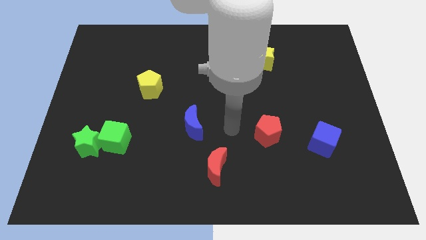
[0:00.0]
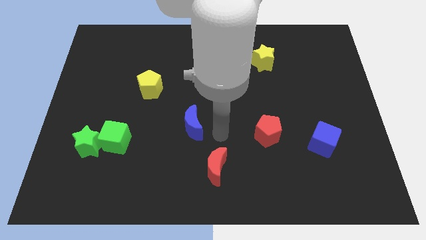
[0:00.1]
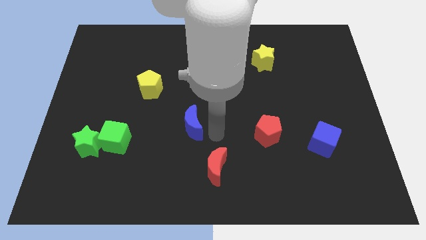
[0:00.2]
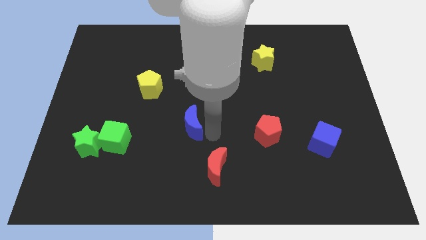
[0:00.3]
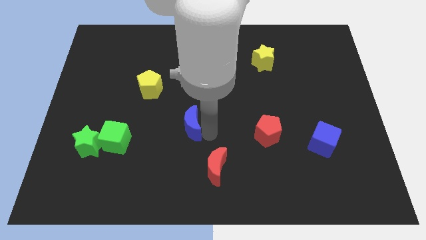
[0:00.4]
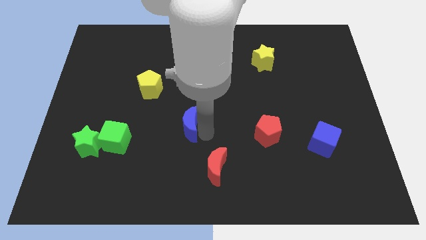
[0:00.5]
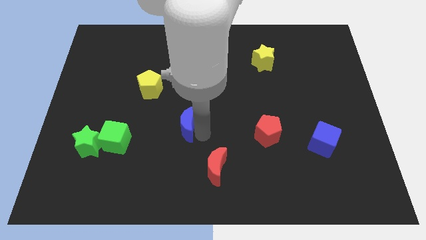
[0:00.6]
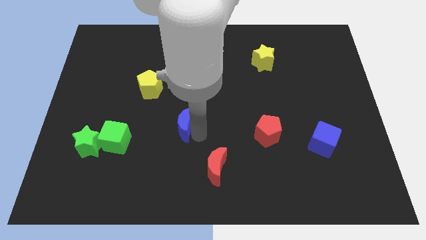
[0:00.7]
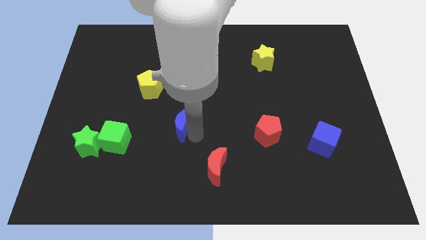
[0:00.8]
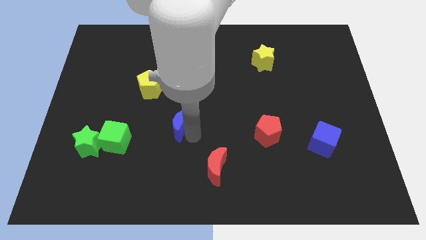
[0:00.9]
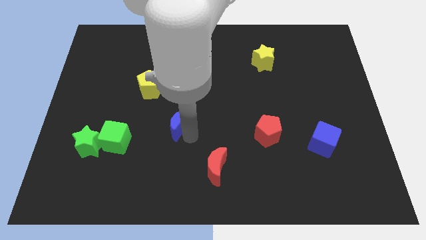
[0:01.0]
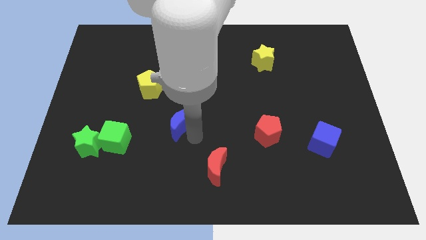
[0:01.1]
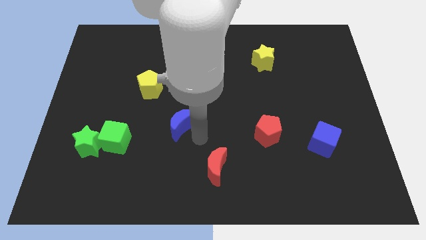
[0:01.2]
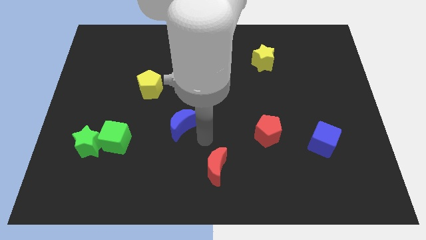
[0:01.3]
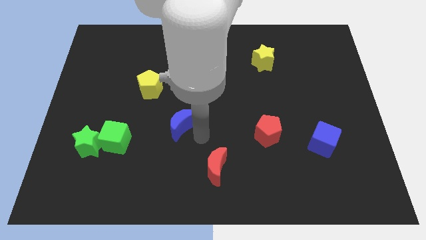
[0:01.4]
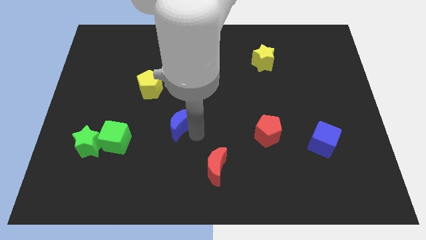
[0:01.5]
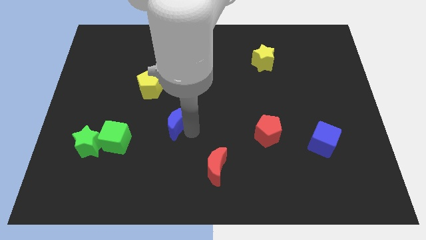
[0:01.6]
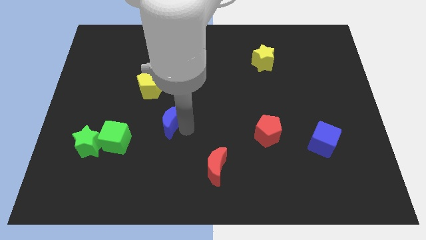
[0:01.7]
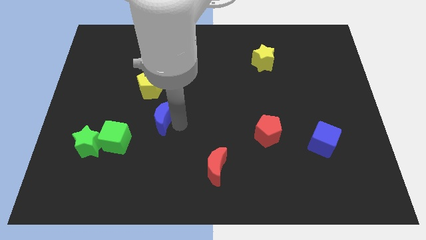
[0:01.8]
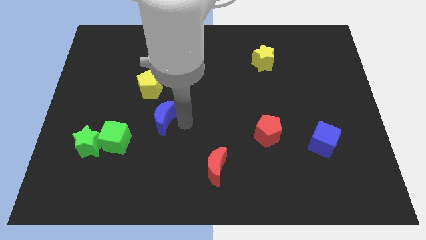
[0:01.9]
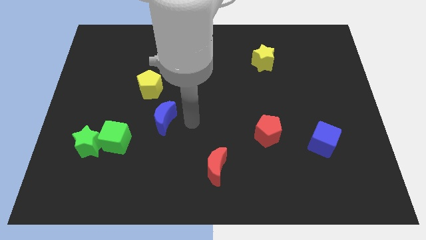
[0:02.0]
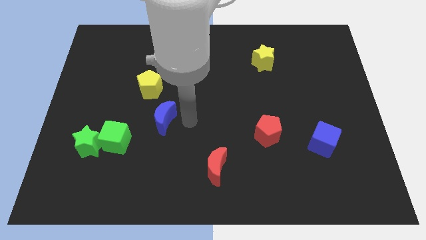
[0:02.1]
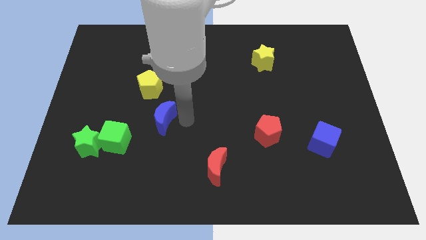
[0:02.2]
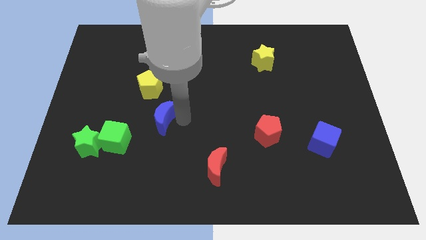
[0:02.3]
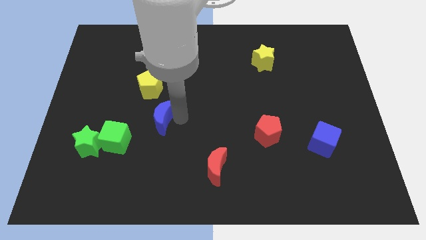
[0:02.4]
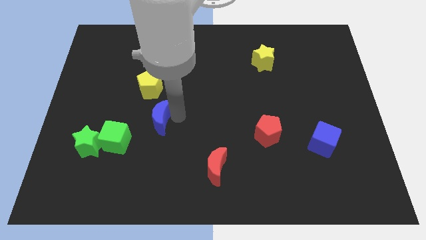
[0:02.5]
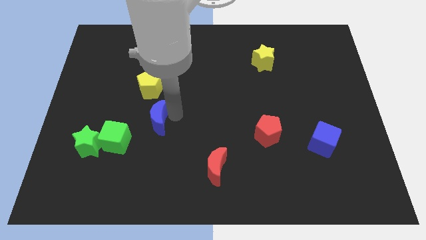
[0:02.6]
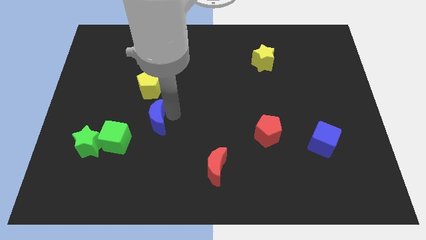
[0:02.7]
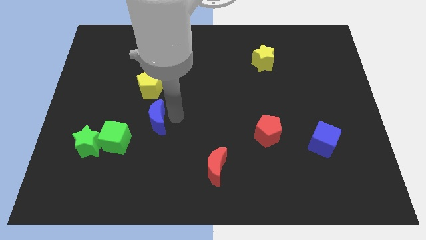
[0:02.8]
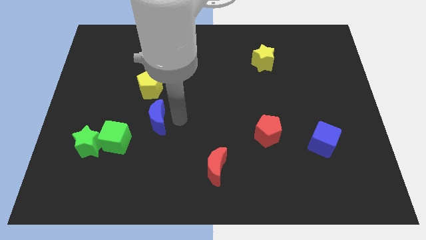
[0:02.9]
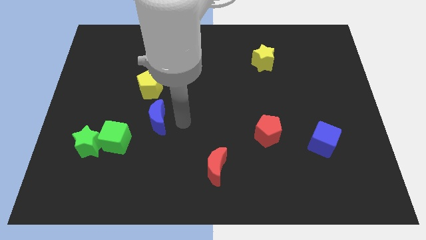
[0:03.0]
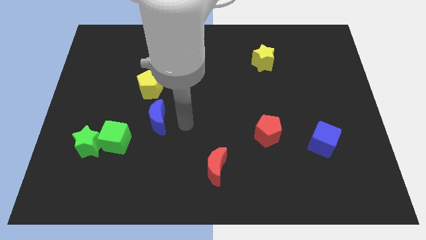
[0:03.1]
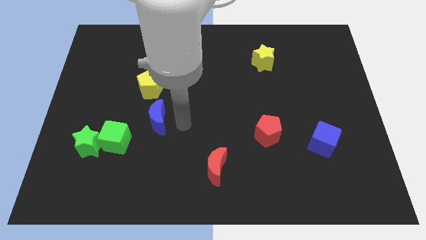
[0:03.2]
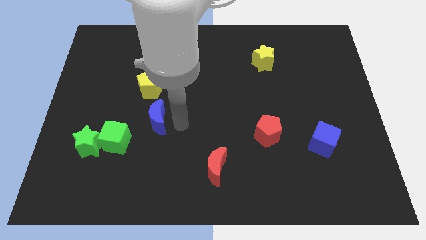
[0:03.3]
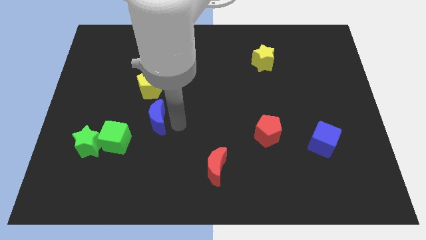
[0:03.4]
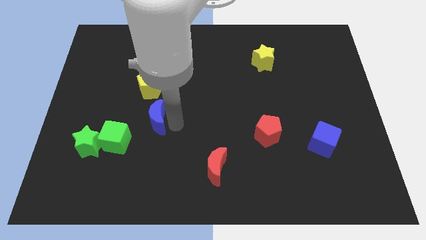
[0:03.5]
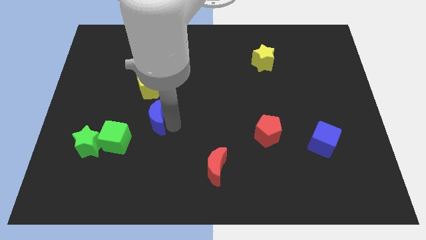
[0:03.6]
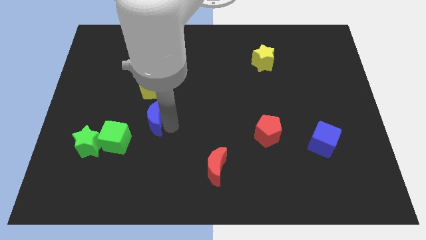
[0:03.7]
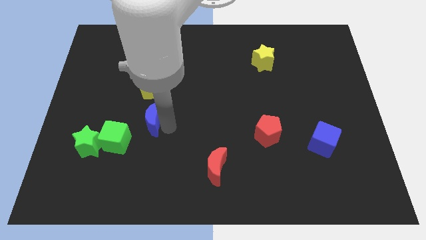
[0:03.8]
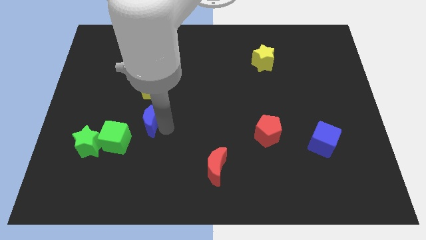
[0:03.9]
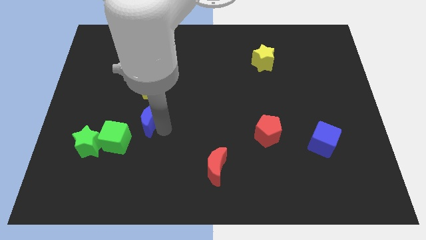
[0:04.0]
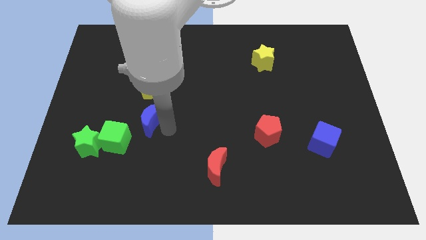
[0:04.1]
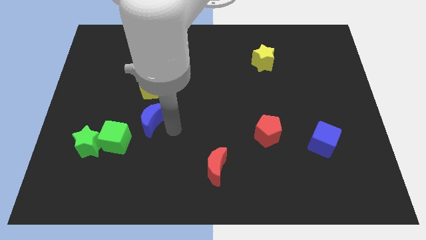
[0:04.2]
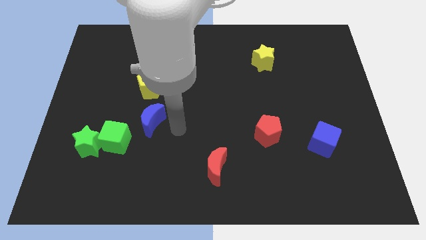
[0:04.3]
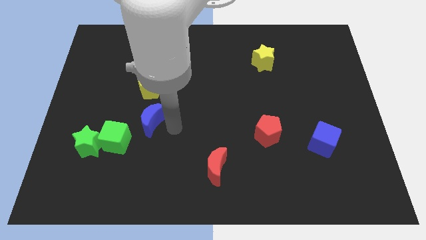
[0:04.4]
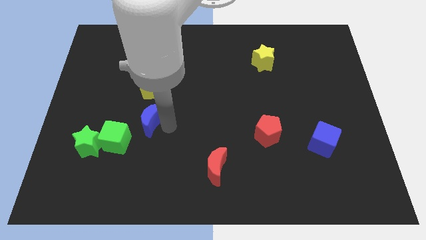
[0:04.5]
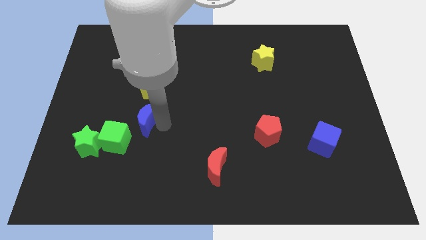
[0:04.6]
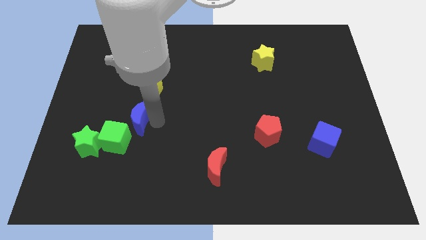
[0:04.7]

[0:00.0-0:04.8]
slide the blue moon to the top right side of the green star

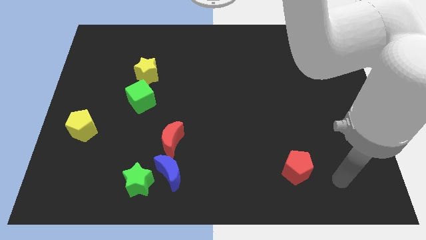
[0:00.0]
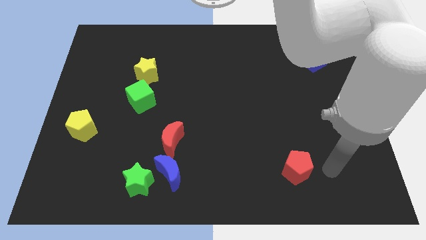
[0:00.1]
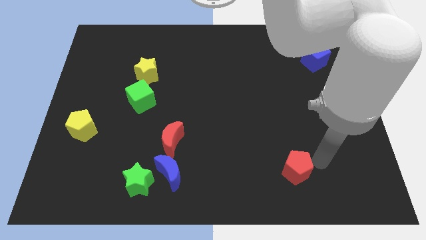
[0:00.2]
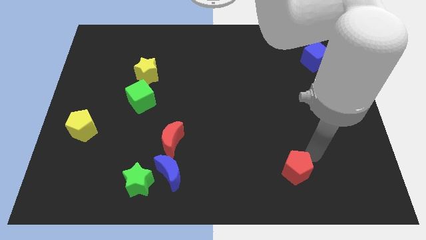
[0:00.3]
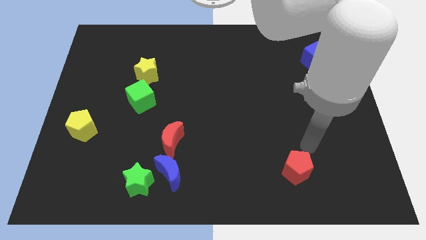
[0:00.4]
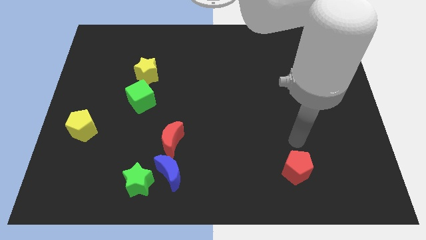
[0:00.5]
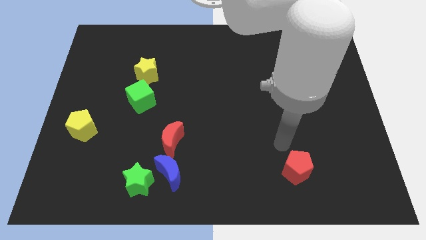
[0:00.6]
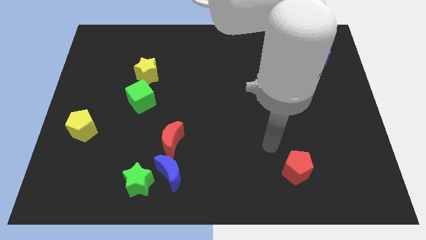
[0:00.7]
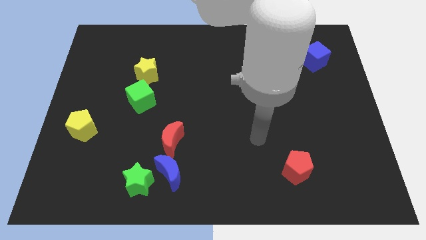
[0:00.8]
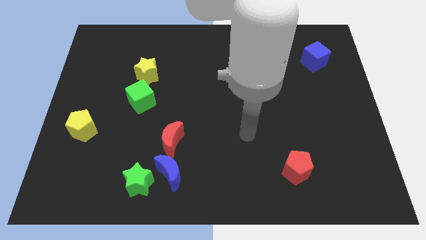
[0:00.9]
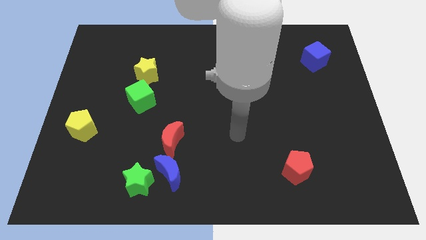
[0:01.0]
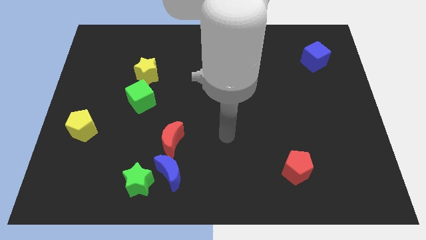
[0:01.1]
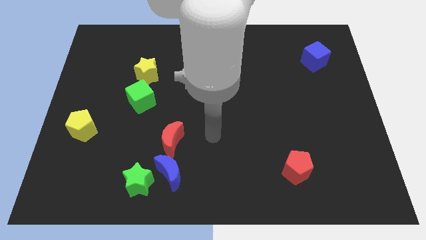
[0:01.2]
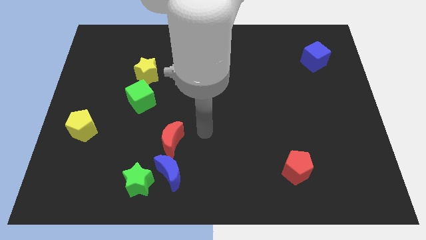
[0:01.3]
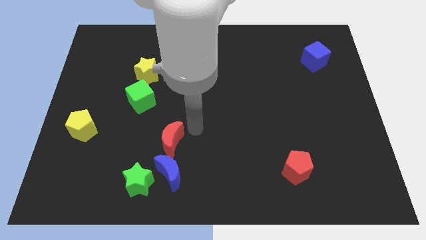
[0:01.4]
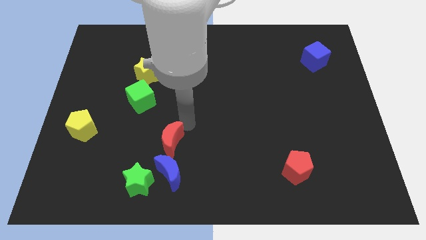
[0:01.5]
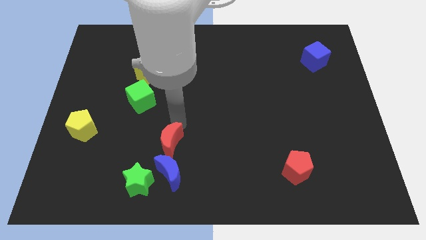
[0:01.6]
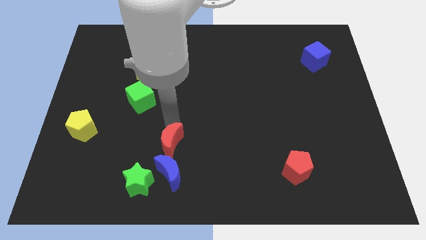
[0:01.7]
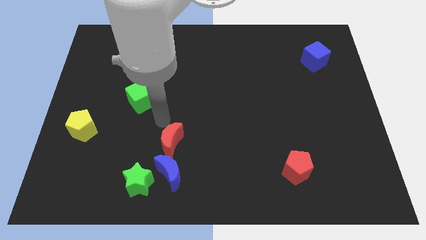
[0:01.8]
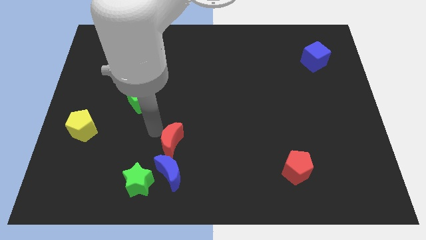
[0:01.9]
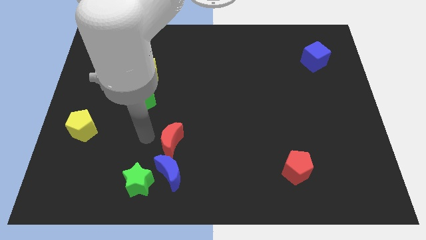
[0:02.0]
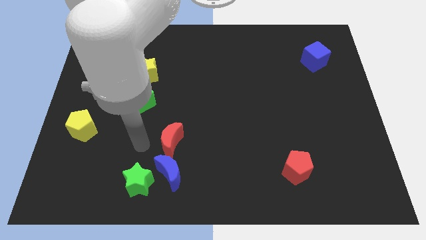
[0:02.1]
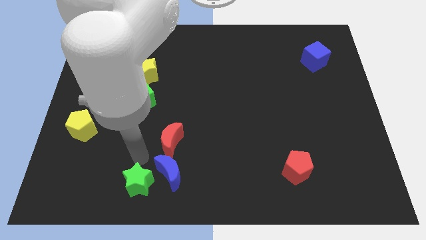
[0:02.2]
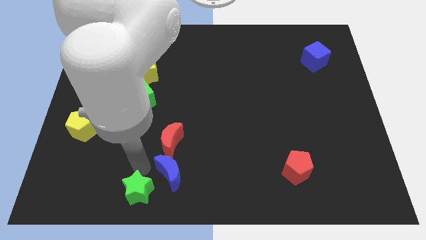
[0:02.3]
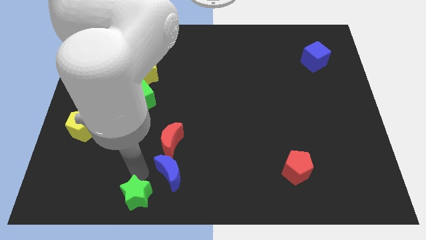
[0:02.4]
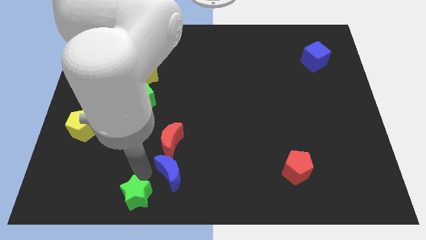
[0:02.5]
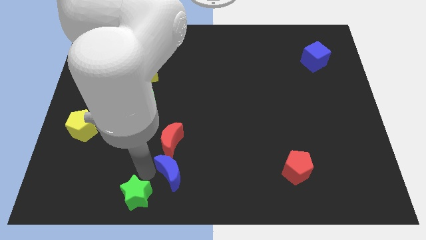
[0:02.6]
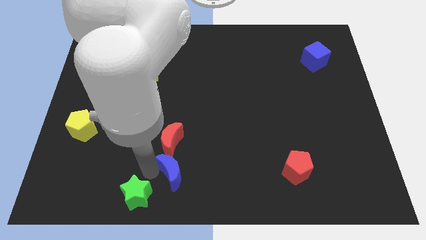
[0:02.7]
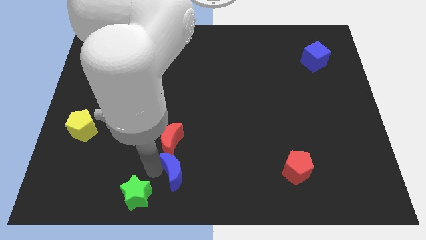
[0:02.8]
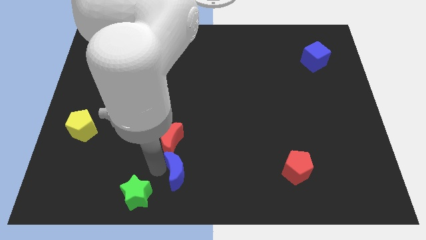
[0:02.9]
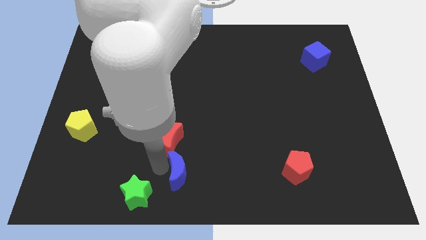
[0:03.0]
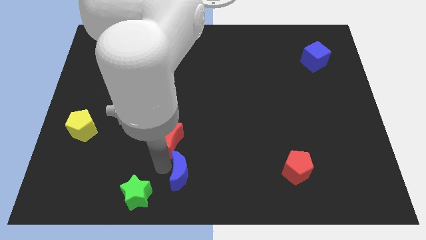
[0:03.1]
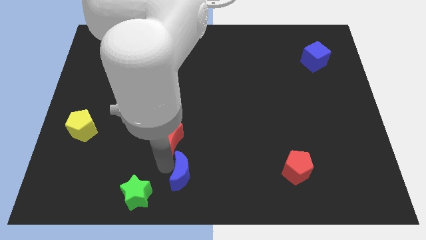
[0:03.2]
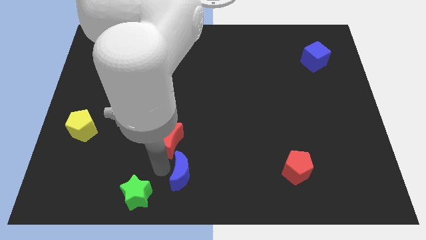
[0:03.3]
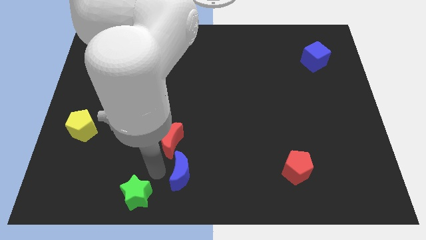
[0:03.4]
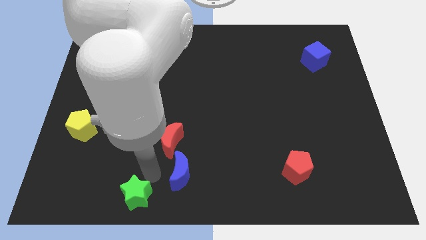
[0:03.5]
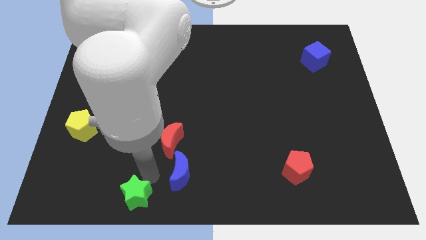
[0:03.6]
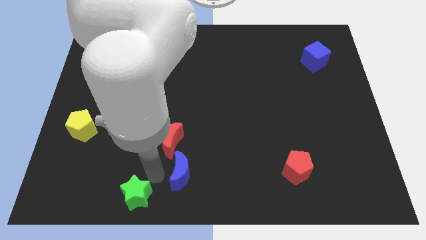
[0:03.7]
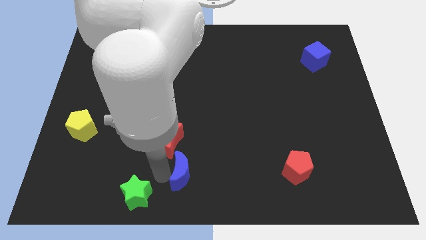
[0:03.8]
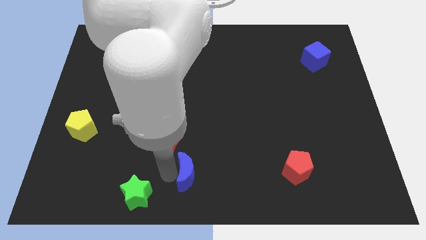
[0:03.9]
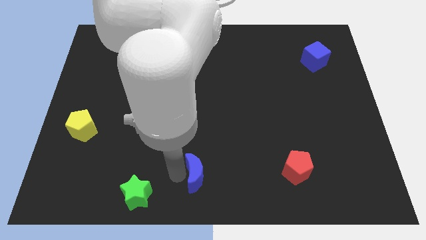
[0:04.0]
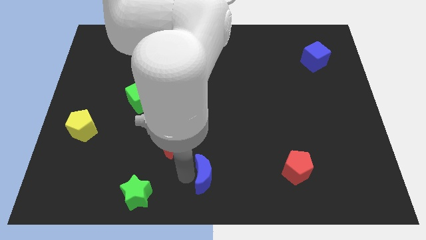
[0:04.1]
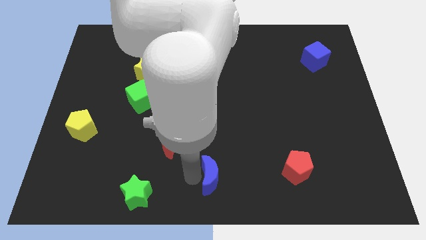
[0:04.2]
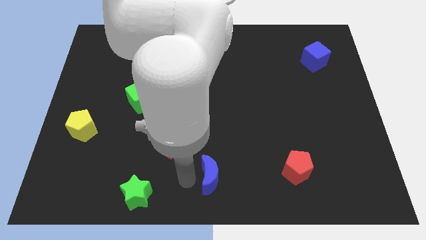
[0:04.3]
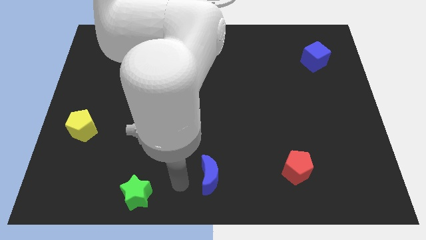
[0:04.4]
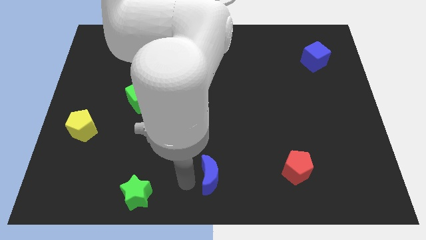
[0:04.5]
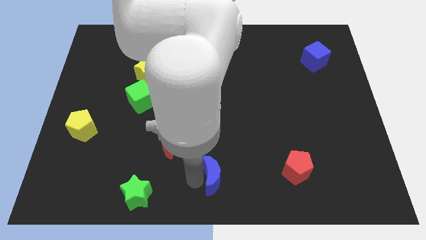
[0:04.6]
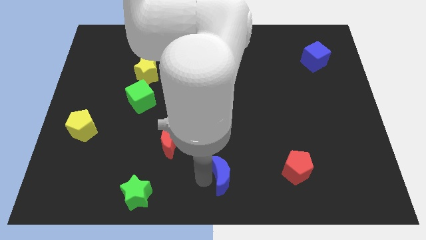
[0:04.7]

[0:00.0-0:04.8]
put the blue moon to the left side of the red pentagon
